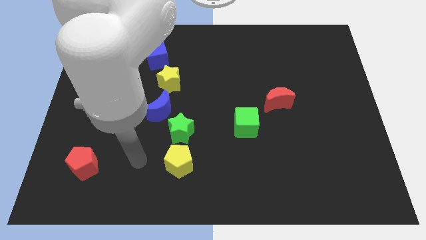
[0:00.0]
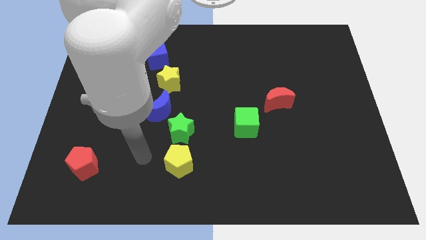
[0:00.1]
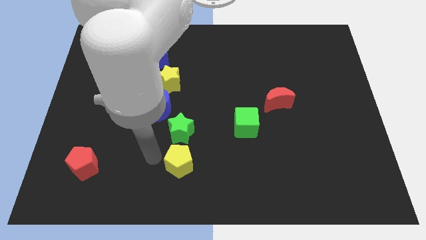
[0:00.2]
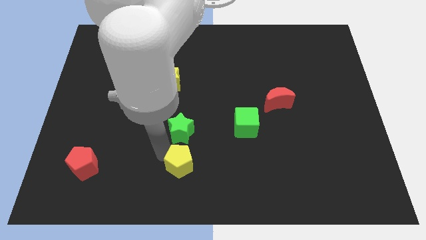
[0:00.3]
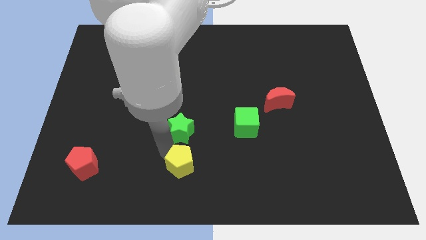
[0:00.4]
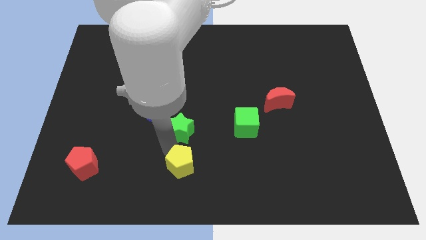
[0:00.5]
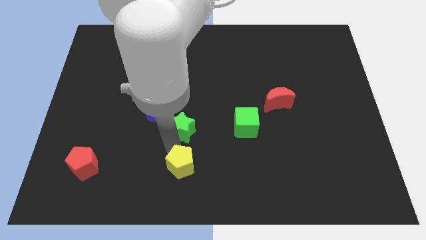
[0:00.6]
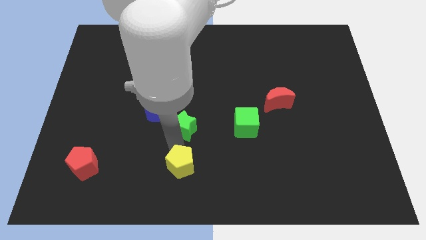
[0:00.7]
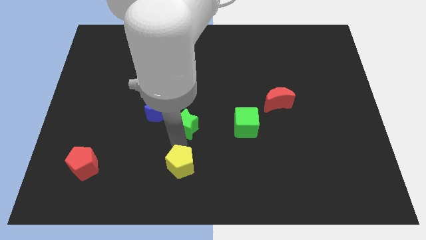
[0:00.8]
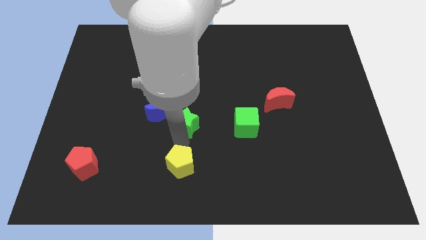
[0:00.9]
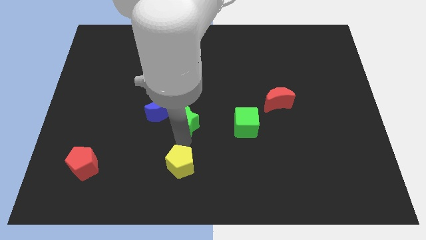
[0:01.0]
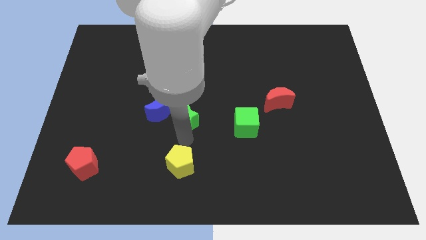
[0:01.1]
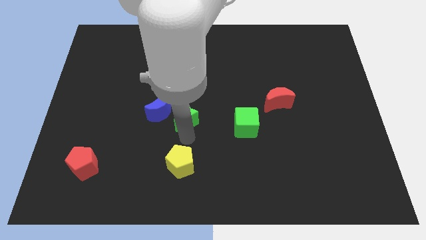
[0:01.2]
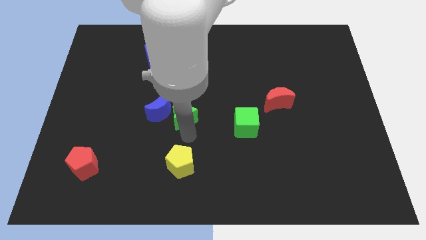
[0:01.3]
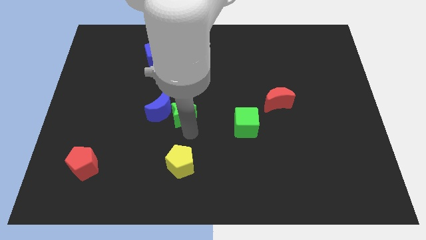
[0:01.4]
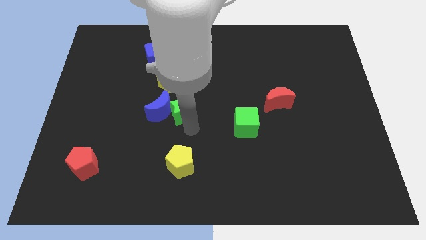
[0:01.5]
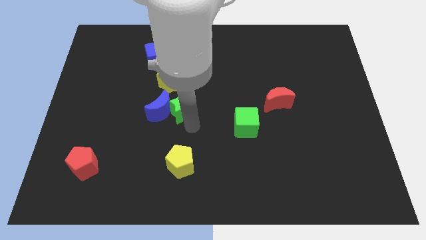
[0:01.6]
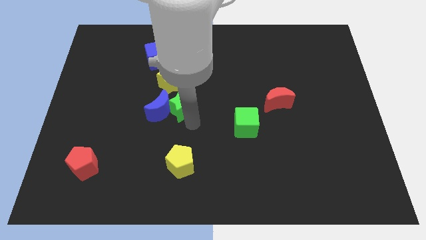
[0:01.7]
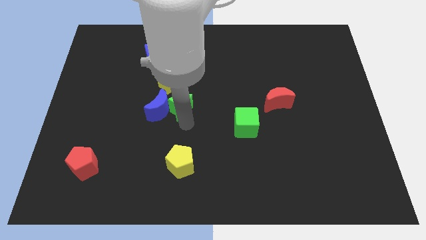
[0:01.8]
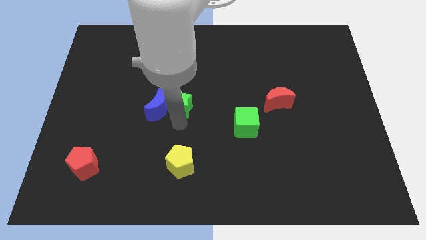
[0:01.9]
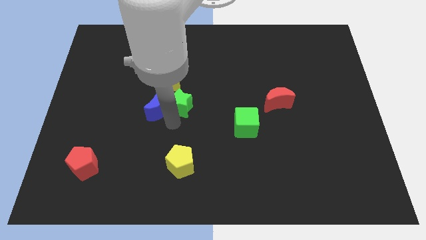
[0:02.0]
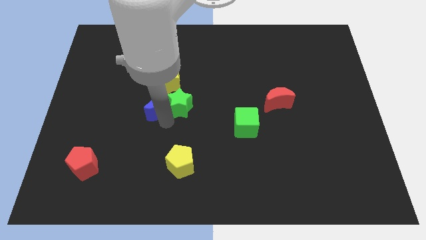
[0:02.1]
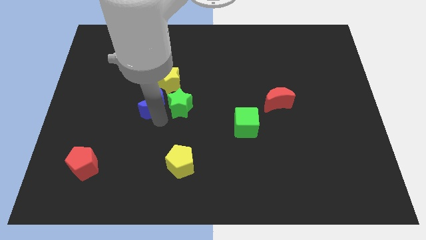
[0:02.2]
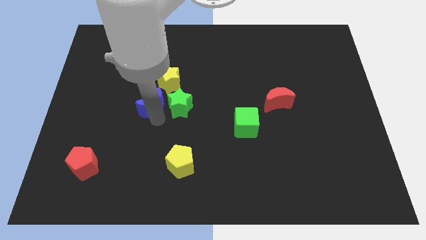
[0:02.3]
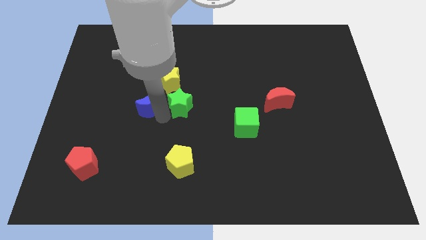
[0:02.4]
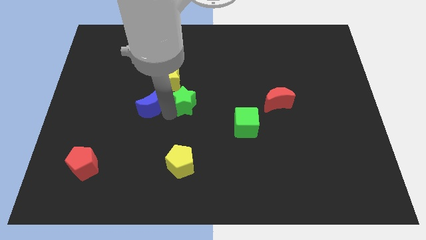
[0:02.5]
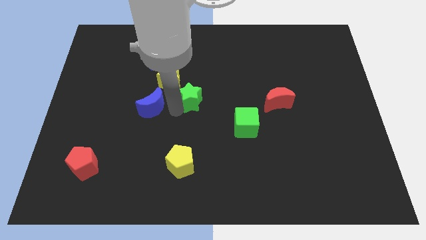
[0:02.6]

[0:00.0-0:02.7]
slide the green star a little bit diagonally upwards and right

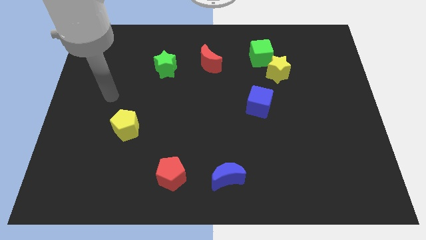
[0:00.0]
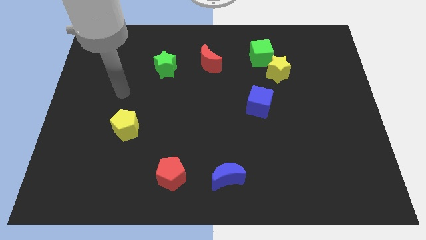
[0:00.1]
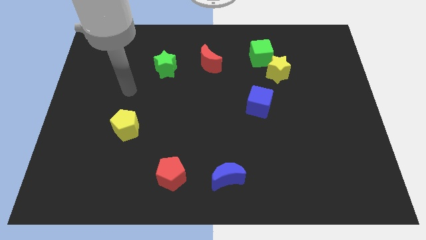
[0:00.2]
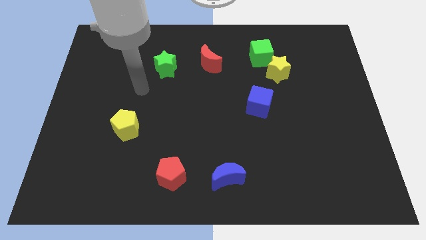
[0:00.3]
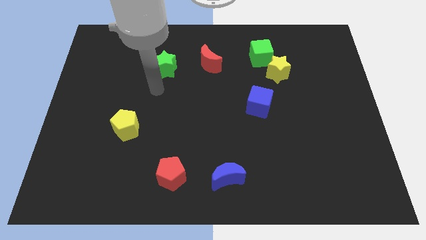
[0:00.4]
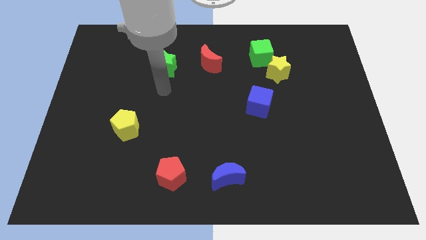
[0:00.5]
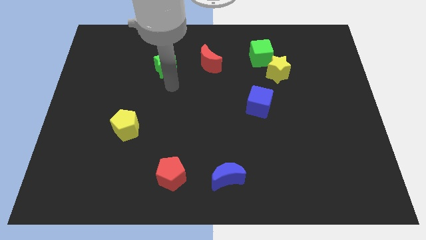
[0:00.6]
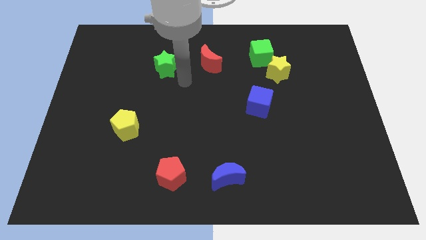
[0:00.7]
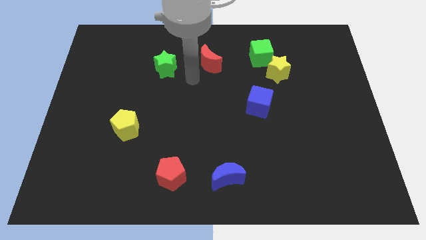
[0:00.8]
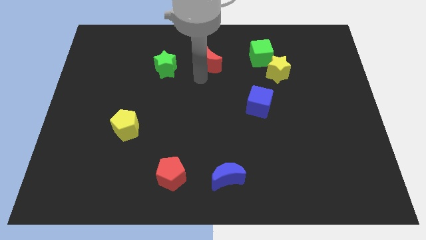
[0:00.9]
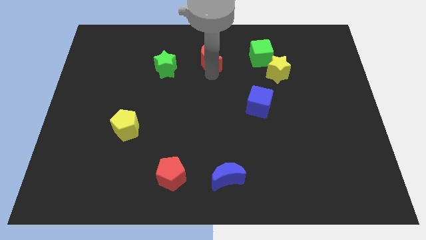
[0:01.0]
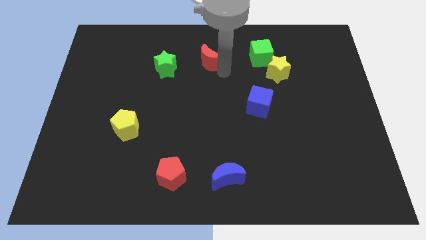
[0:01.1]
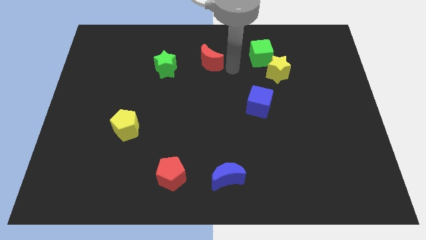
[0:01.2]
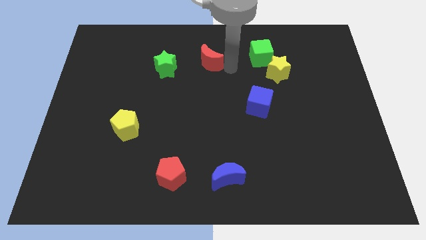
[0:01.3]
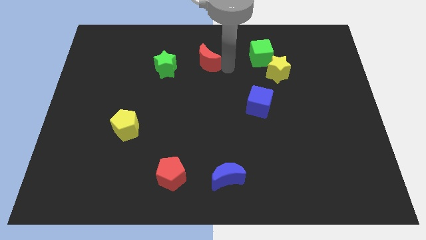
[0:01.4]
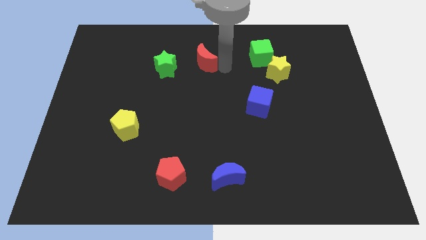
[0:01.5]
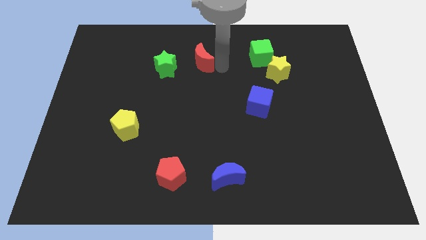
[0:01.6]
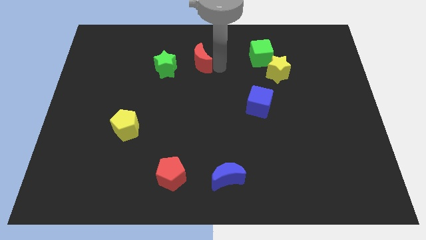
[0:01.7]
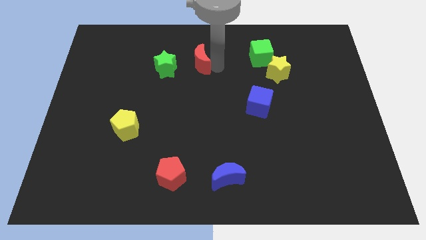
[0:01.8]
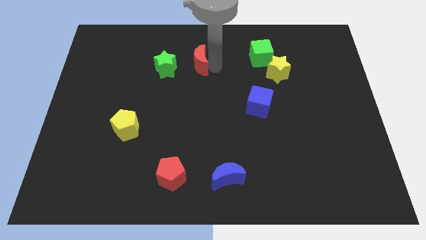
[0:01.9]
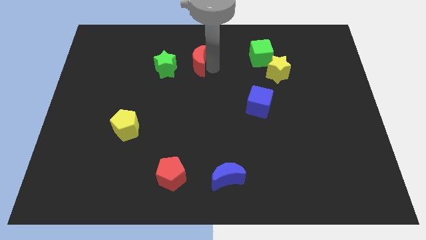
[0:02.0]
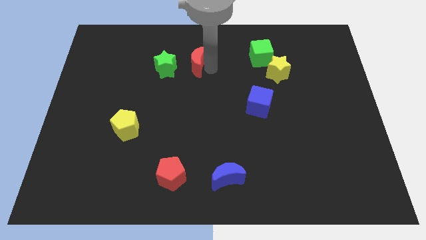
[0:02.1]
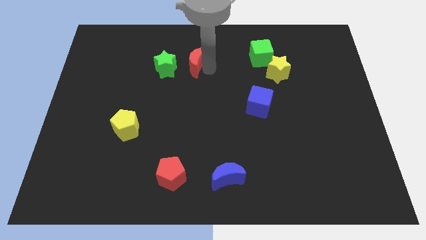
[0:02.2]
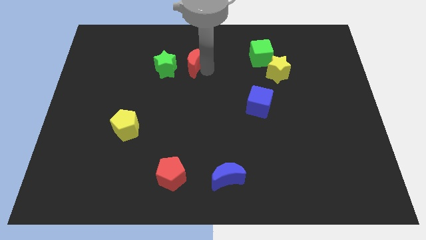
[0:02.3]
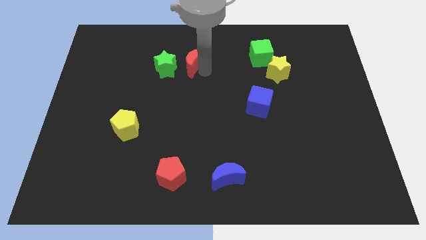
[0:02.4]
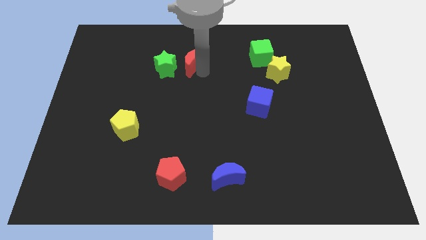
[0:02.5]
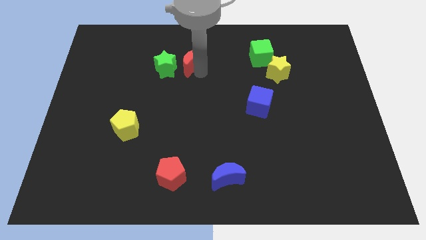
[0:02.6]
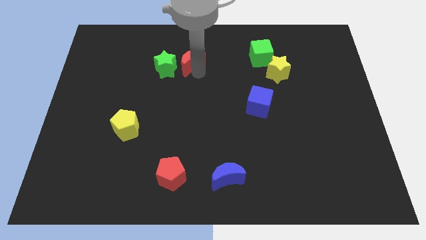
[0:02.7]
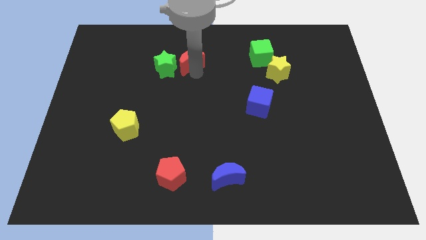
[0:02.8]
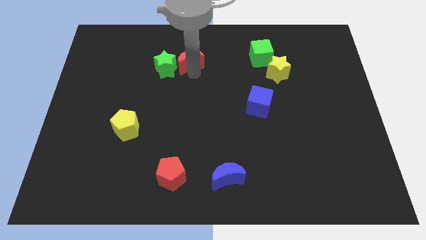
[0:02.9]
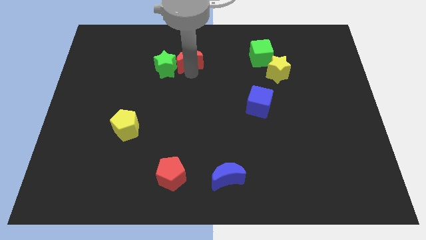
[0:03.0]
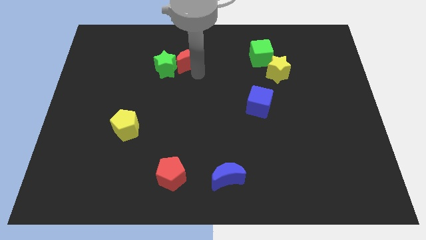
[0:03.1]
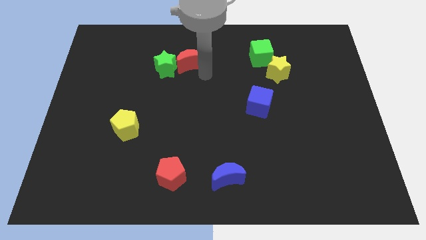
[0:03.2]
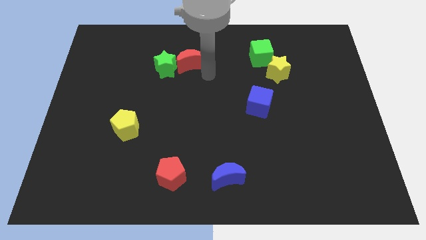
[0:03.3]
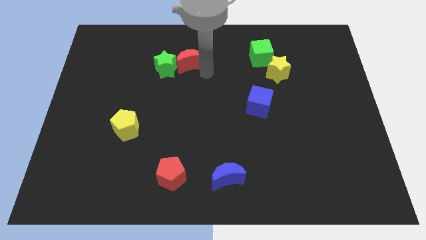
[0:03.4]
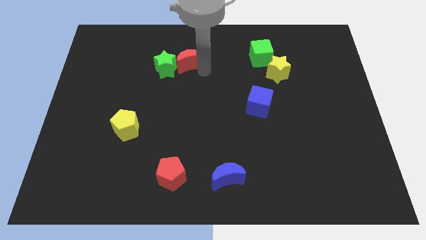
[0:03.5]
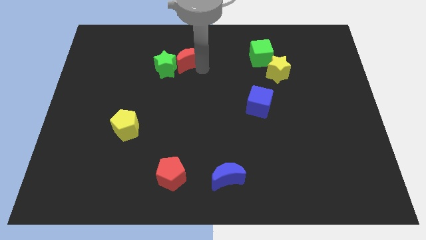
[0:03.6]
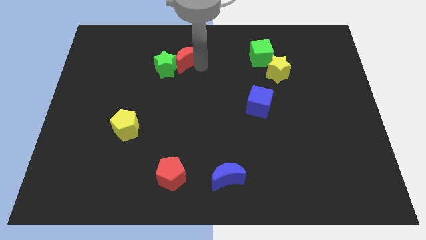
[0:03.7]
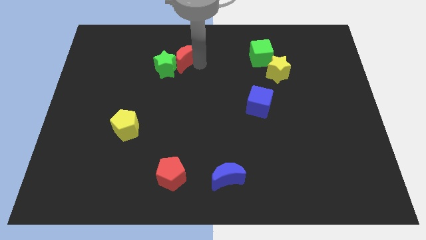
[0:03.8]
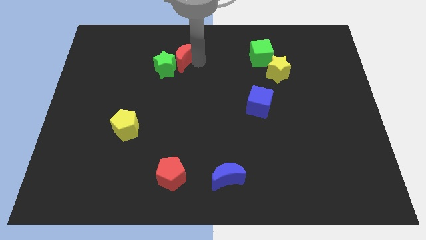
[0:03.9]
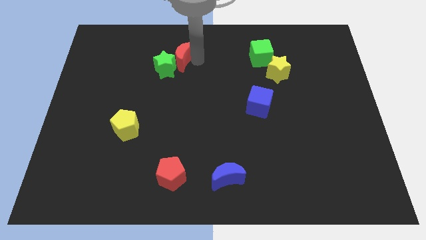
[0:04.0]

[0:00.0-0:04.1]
push the red moon left a bit

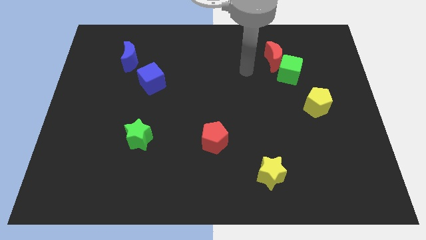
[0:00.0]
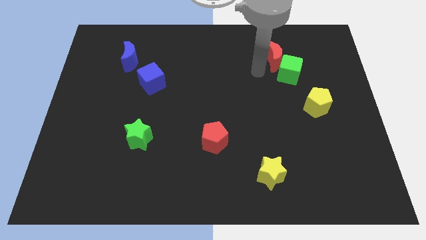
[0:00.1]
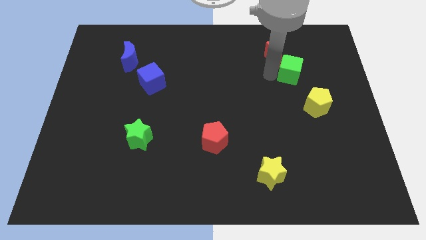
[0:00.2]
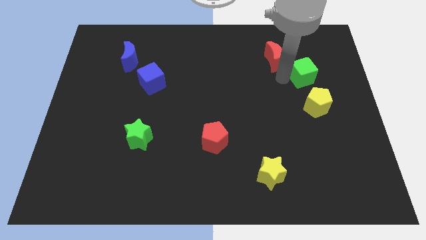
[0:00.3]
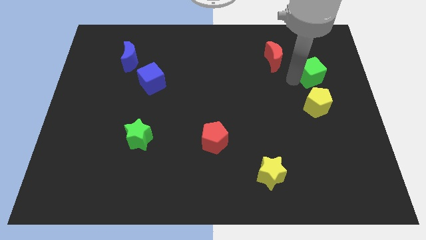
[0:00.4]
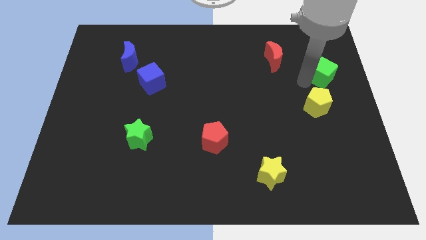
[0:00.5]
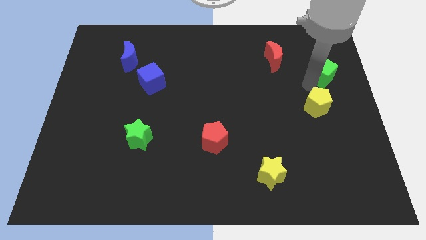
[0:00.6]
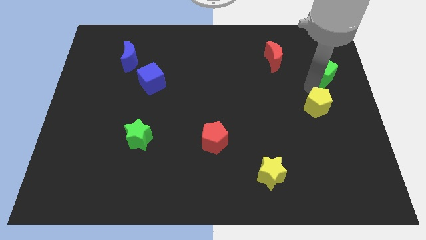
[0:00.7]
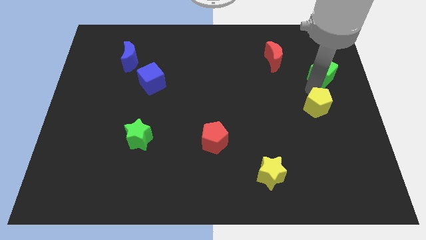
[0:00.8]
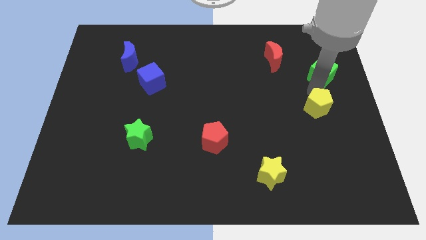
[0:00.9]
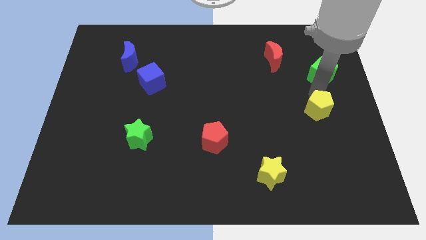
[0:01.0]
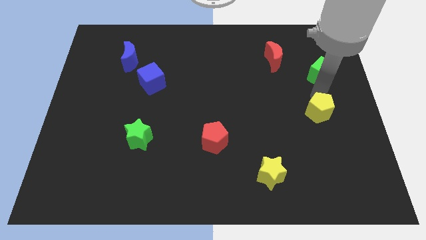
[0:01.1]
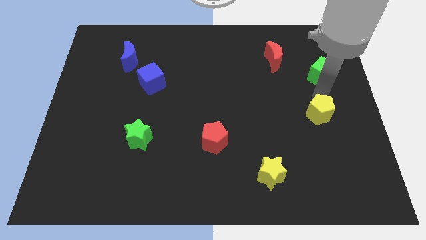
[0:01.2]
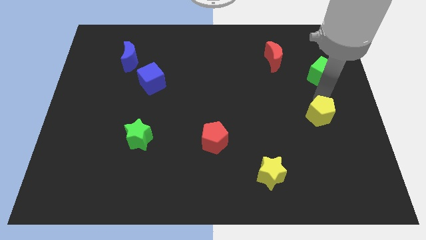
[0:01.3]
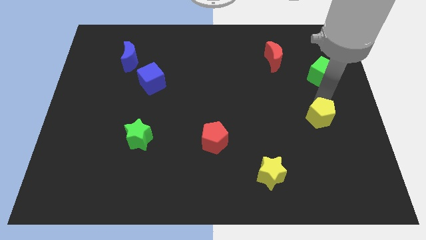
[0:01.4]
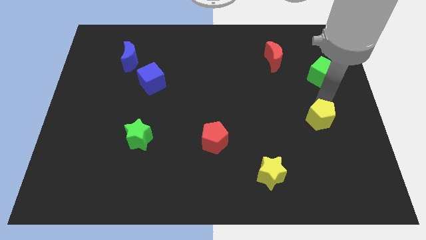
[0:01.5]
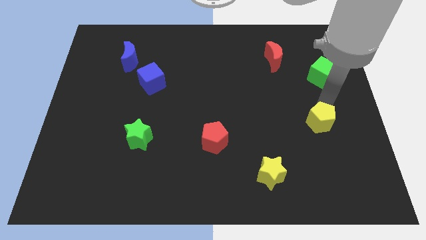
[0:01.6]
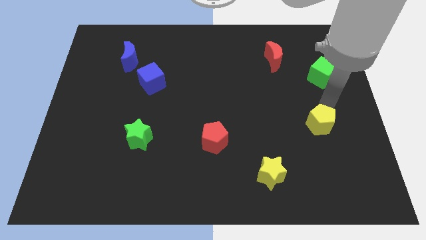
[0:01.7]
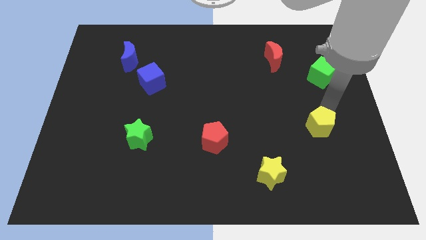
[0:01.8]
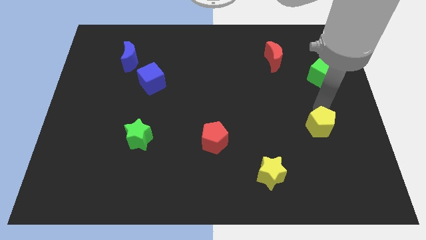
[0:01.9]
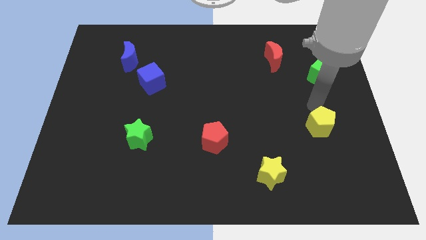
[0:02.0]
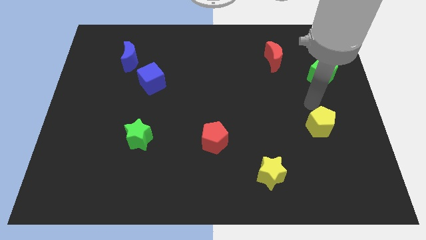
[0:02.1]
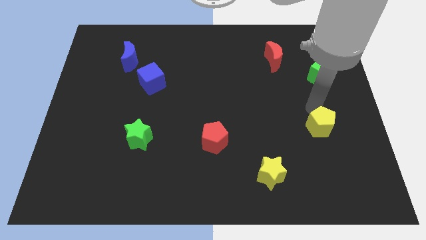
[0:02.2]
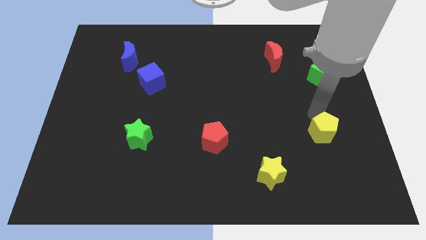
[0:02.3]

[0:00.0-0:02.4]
slightly slide the yellow pentagon down
